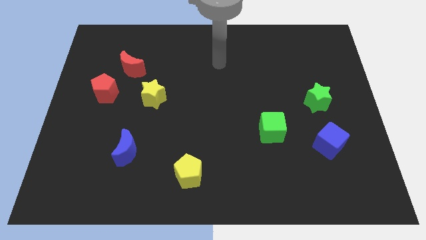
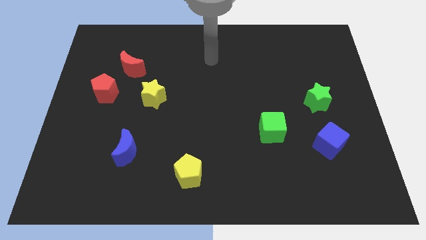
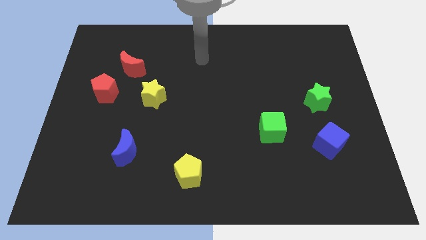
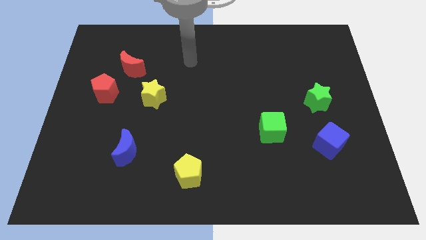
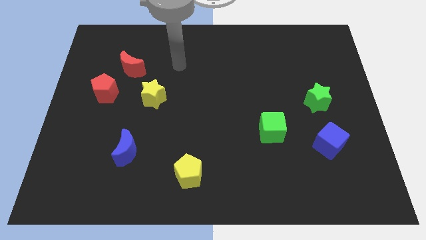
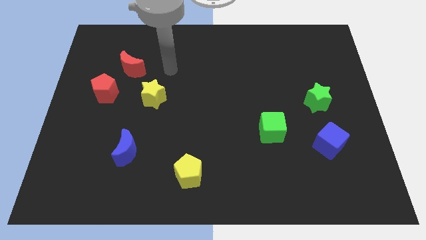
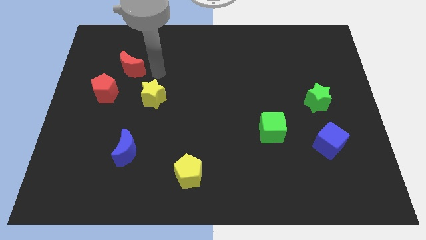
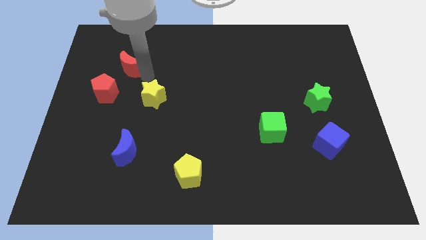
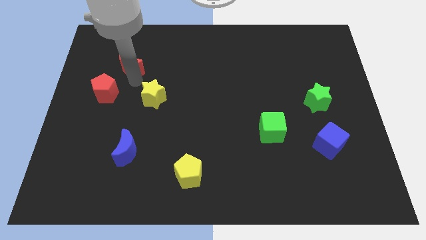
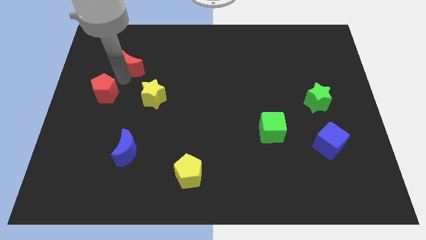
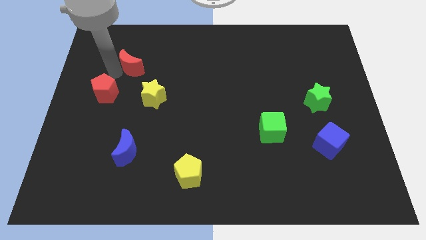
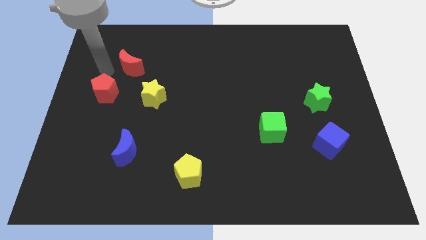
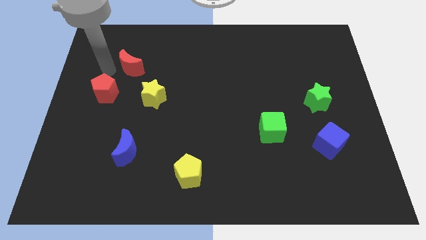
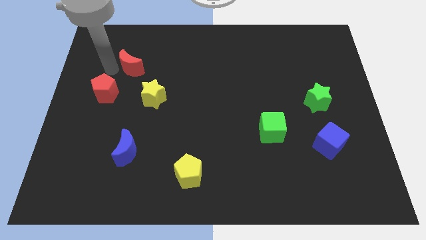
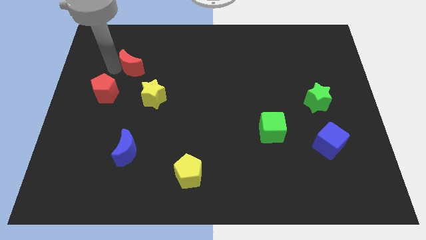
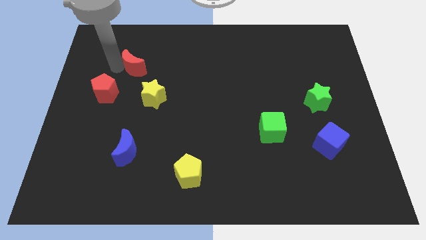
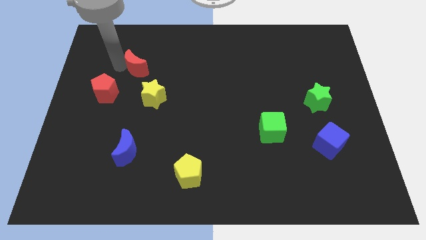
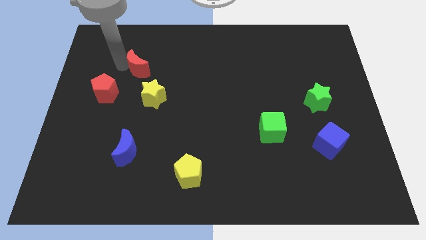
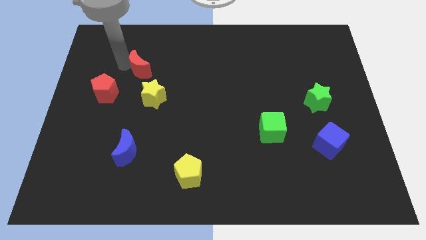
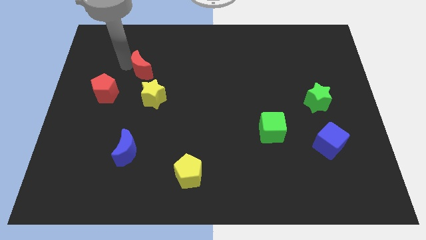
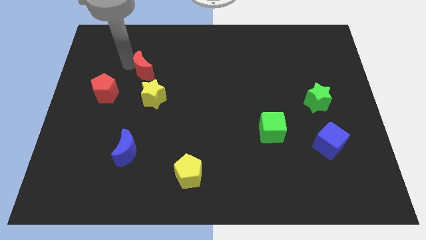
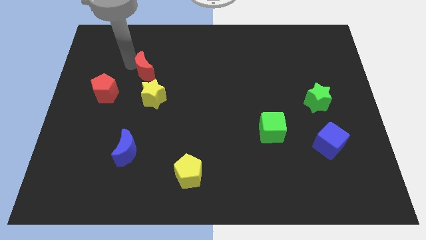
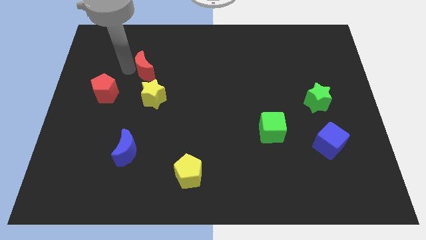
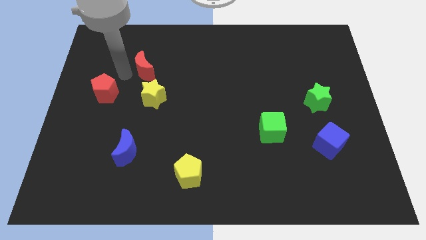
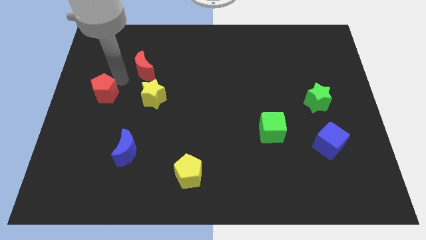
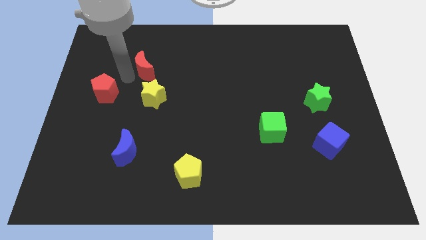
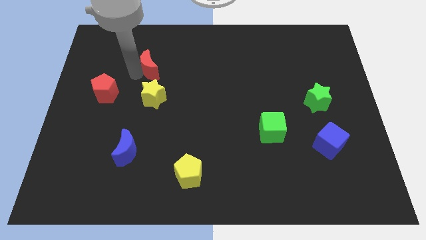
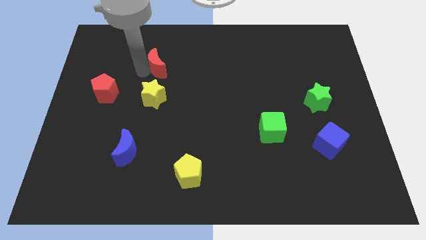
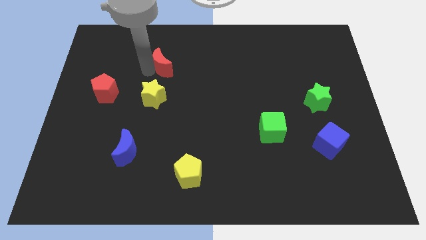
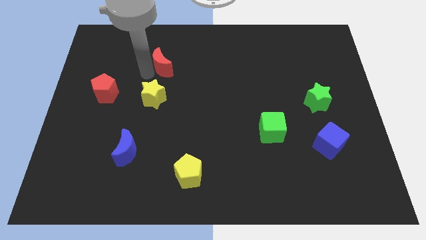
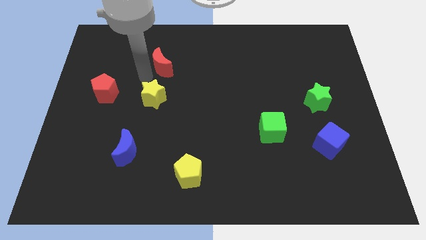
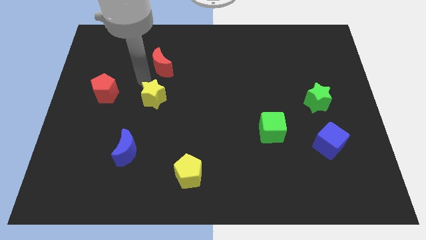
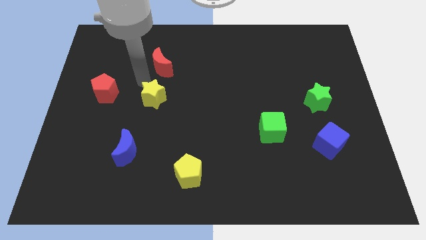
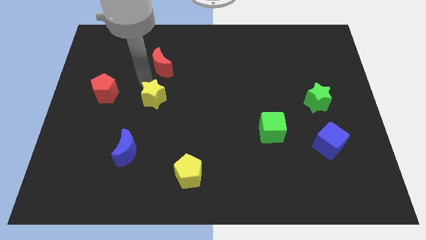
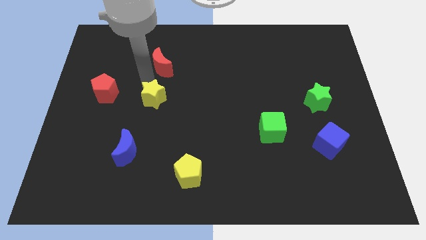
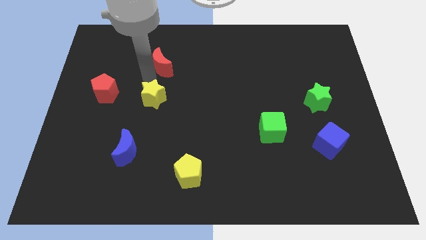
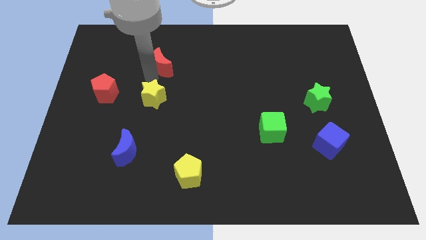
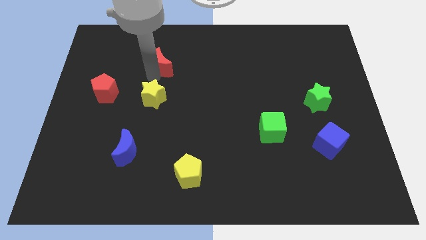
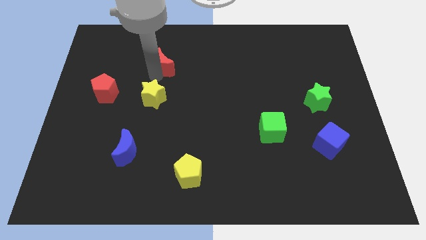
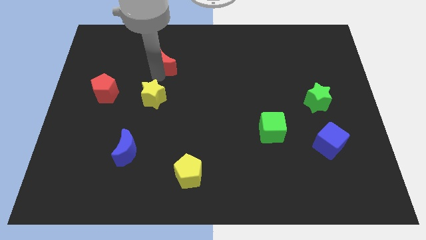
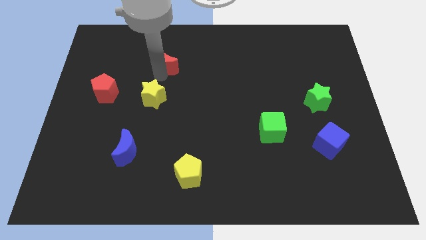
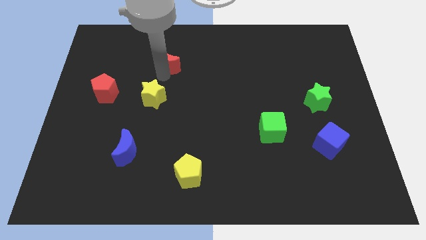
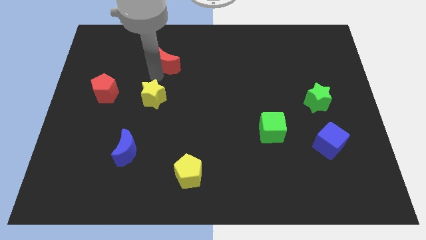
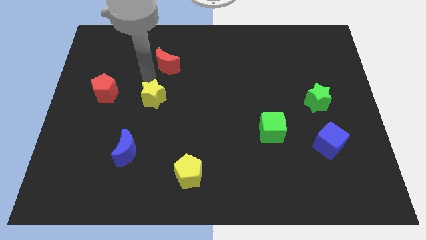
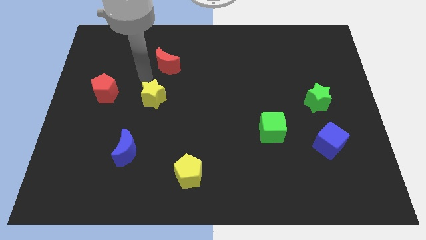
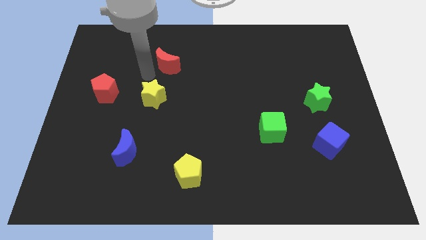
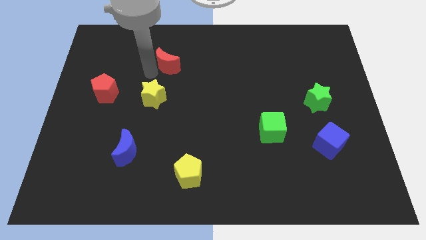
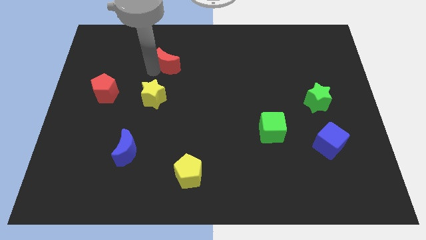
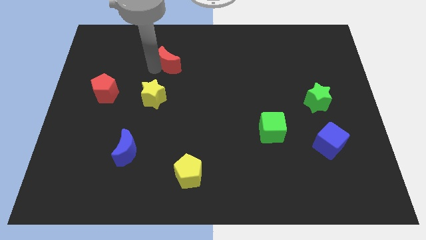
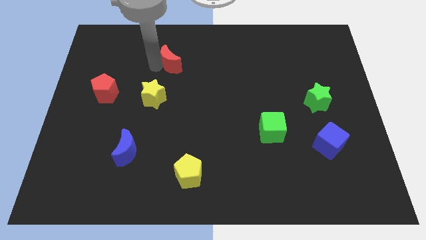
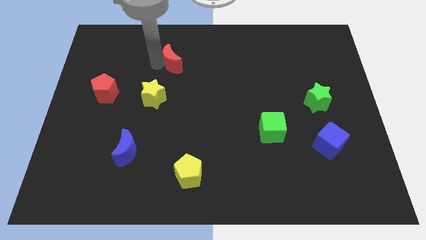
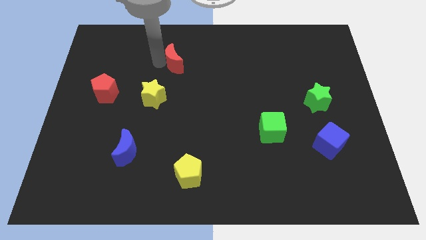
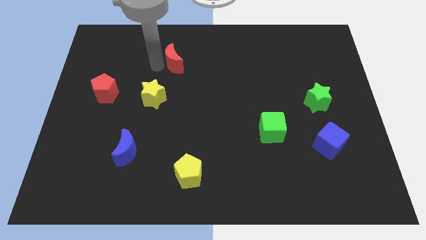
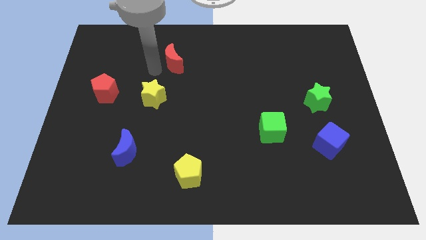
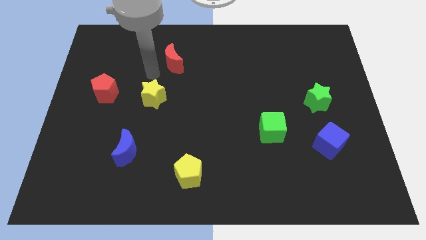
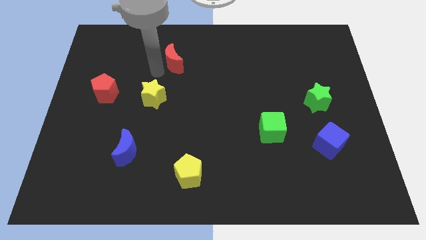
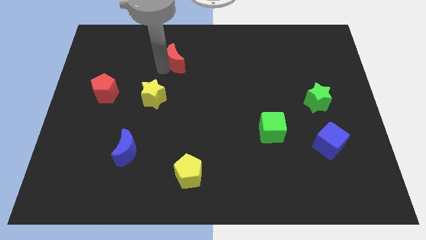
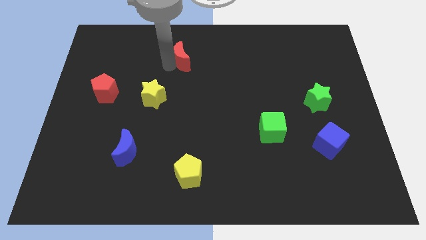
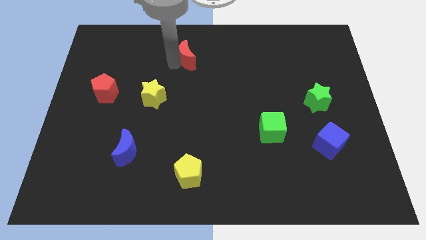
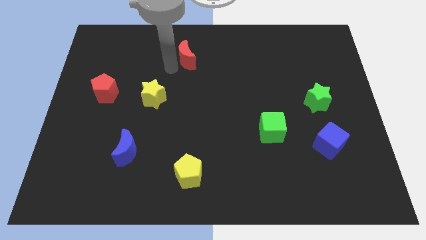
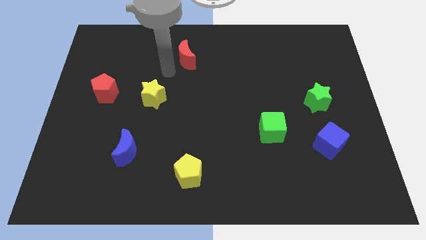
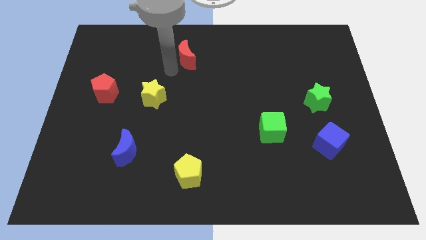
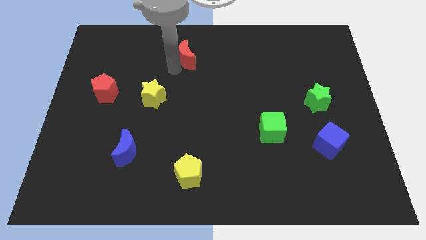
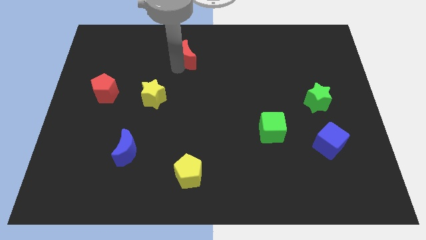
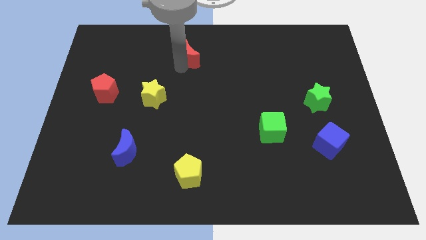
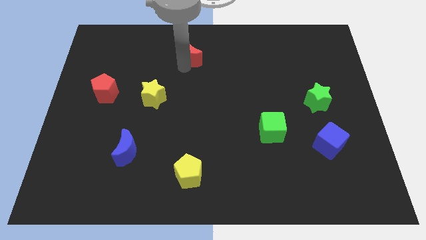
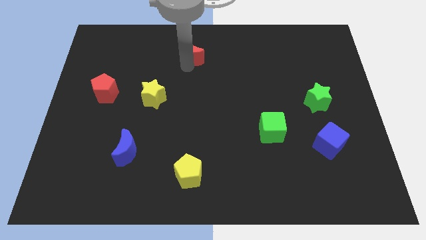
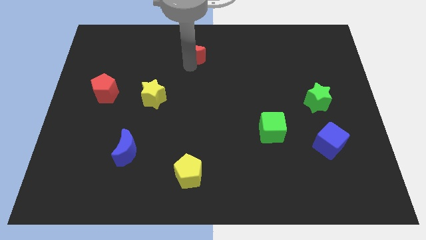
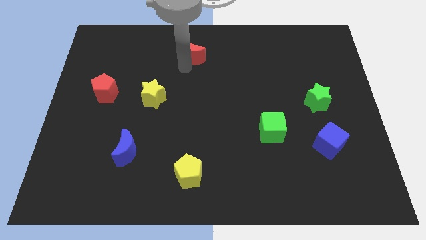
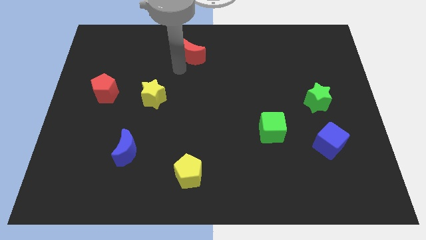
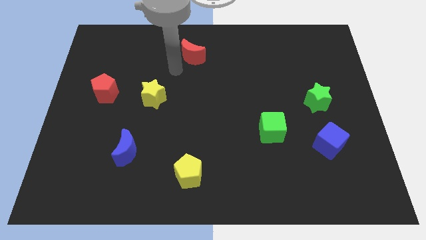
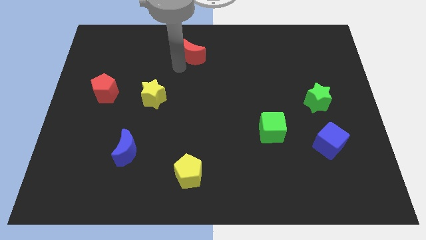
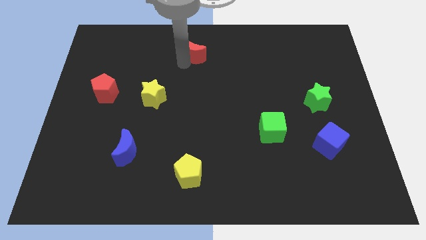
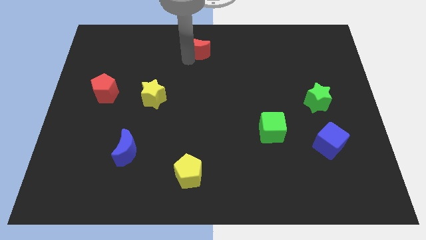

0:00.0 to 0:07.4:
put the red moon to the towards your base
